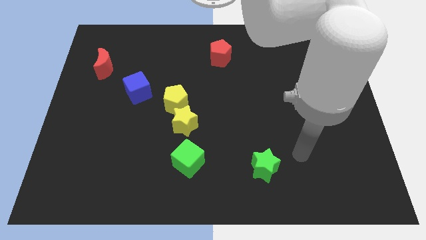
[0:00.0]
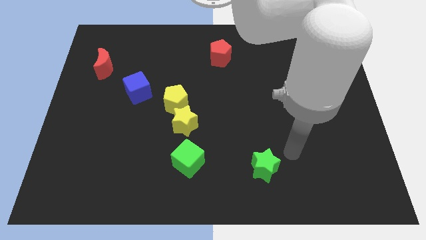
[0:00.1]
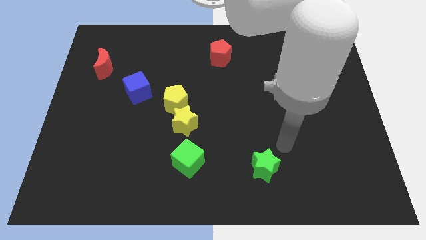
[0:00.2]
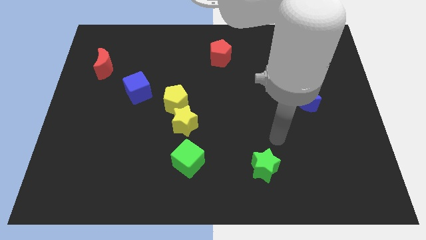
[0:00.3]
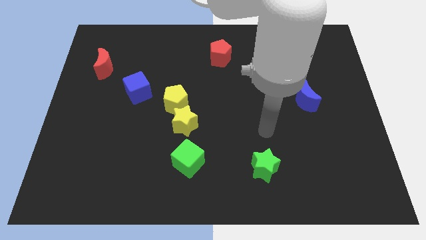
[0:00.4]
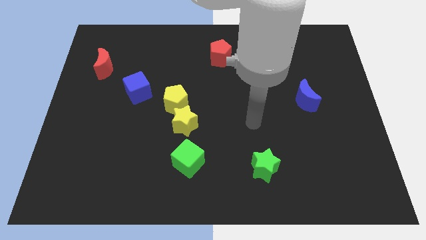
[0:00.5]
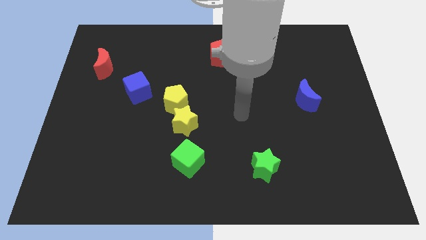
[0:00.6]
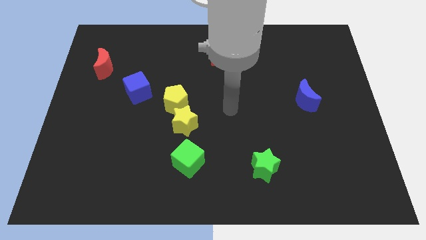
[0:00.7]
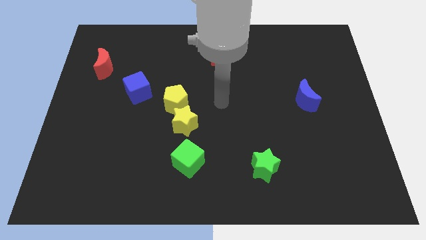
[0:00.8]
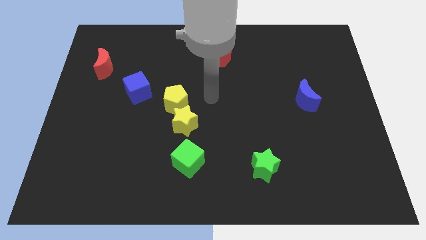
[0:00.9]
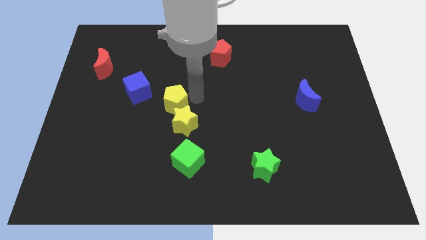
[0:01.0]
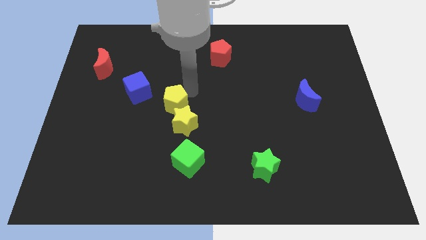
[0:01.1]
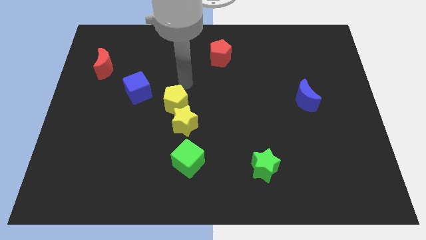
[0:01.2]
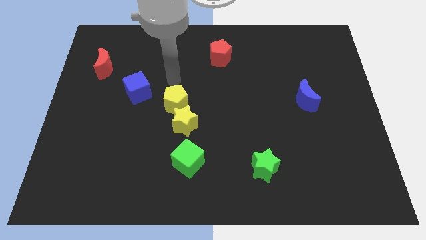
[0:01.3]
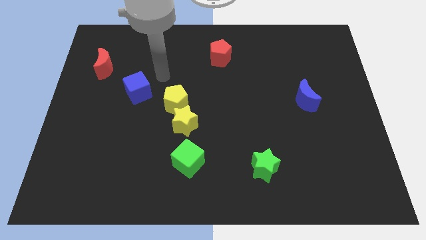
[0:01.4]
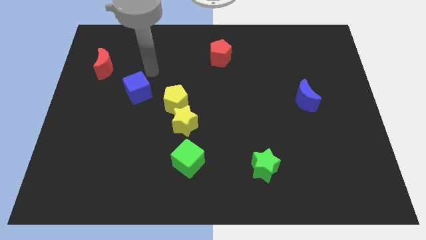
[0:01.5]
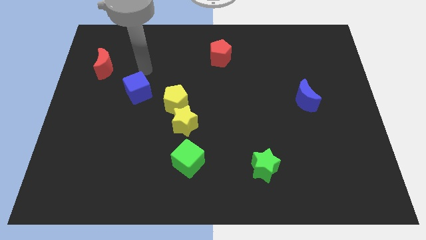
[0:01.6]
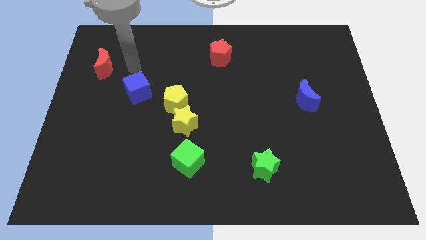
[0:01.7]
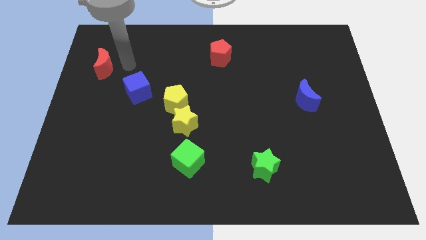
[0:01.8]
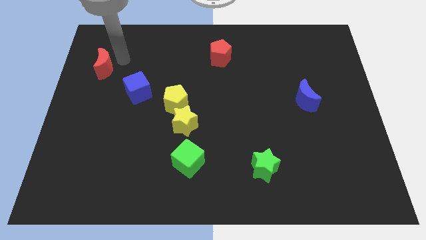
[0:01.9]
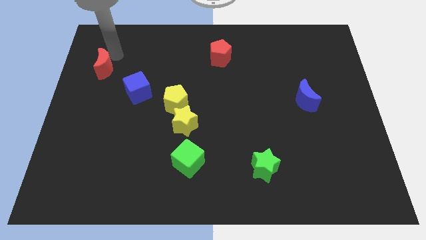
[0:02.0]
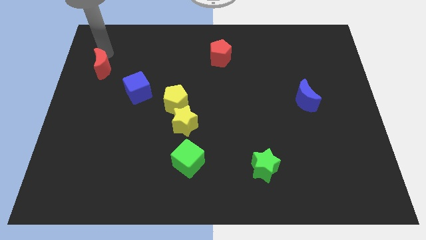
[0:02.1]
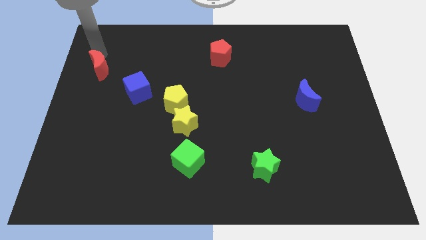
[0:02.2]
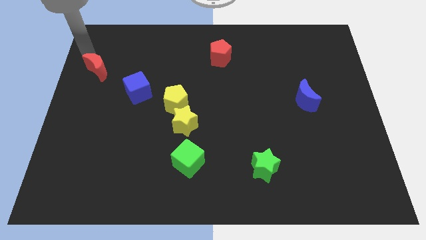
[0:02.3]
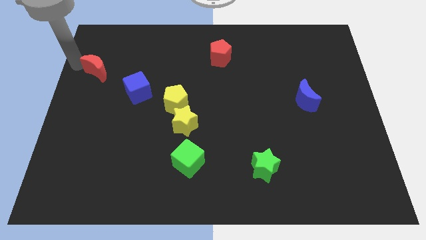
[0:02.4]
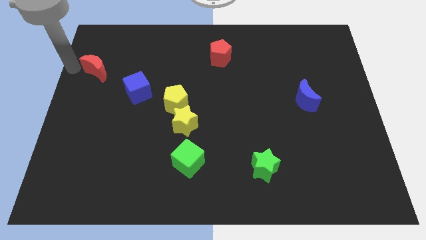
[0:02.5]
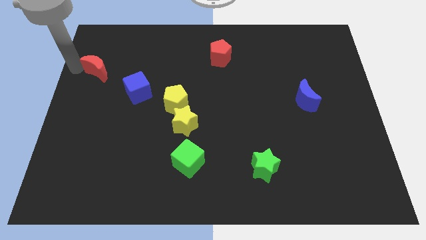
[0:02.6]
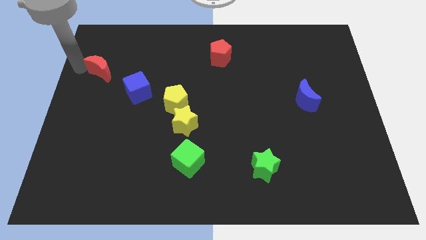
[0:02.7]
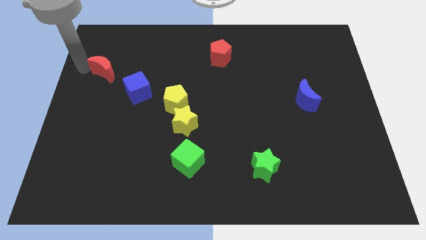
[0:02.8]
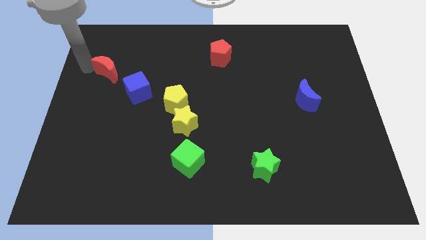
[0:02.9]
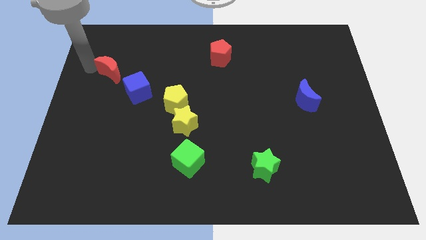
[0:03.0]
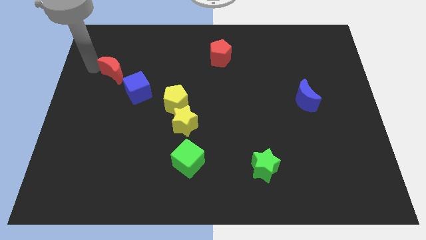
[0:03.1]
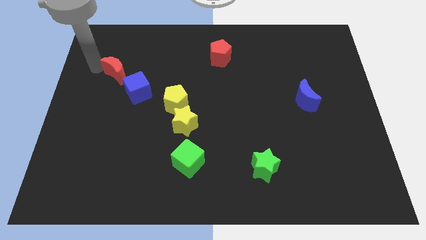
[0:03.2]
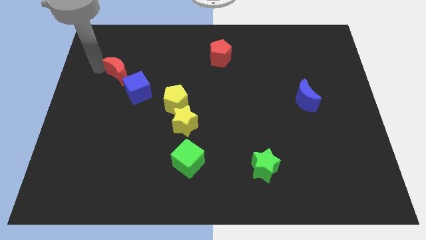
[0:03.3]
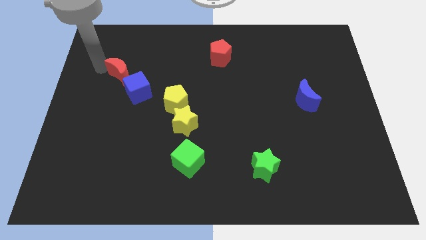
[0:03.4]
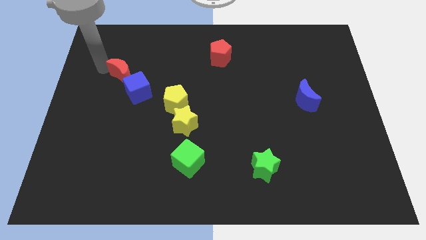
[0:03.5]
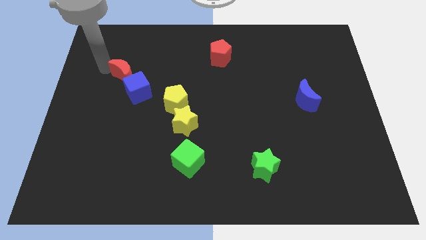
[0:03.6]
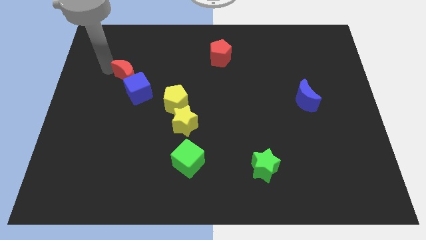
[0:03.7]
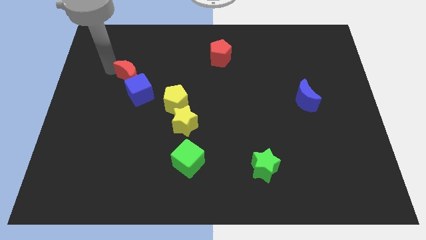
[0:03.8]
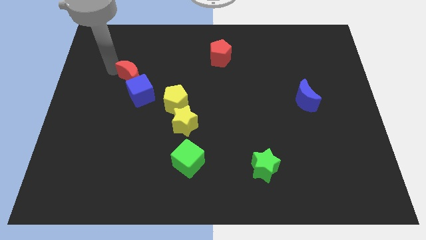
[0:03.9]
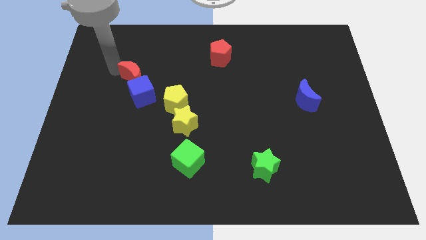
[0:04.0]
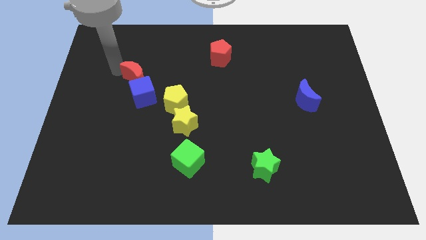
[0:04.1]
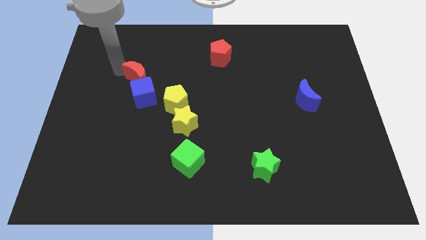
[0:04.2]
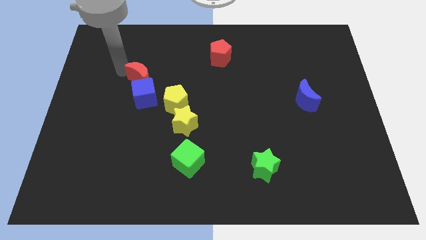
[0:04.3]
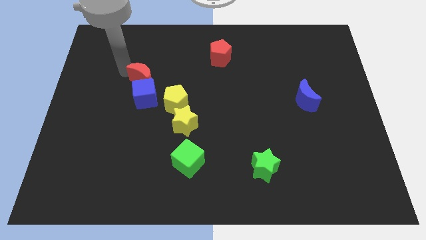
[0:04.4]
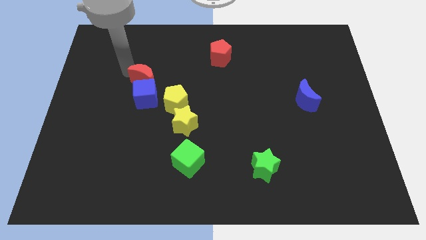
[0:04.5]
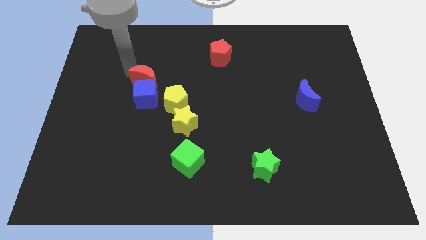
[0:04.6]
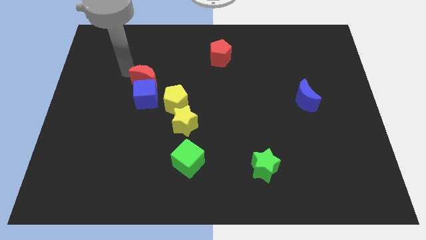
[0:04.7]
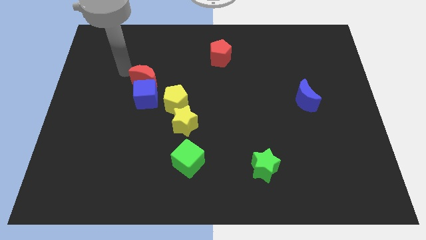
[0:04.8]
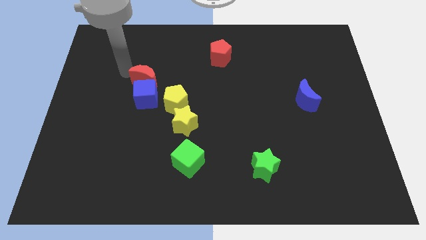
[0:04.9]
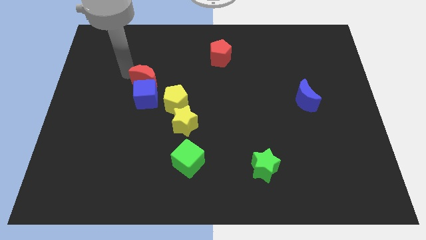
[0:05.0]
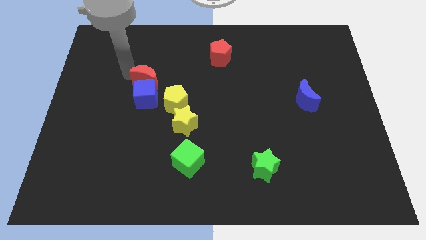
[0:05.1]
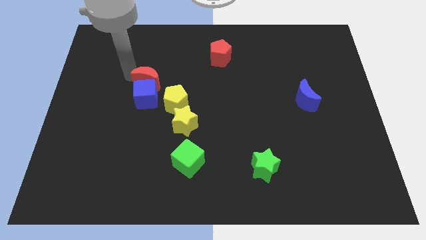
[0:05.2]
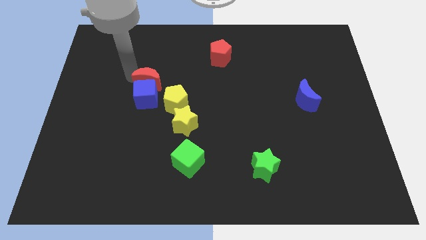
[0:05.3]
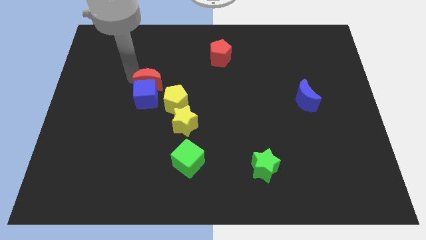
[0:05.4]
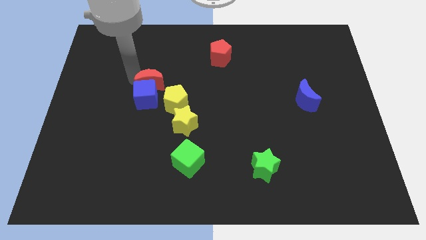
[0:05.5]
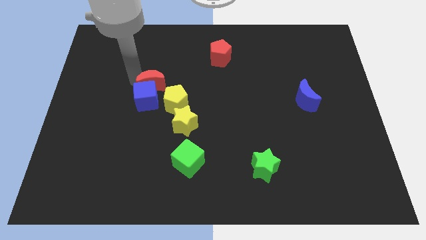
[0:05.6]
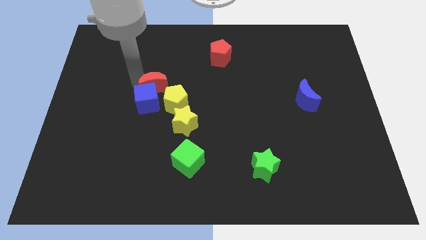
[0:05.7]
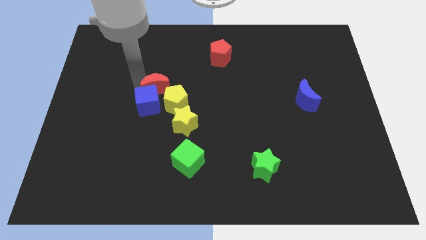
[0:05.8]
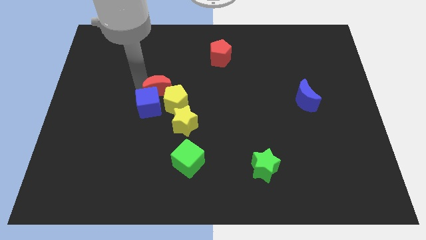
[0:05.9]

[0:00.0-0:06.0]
push the red moon towards the yellow pentagon

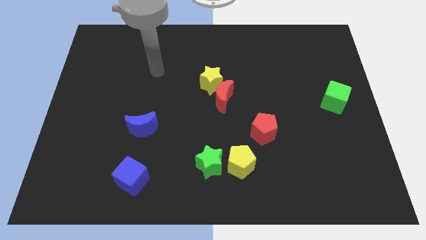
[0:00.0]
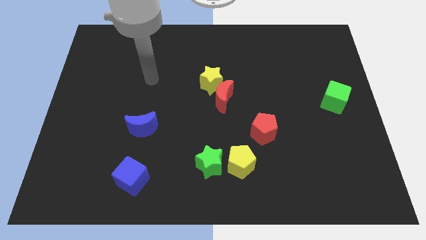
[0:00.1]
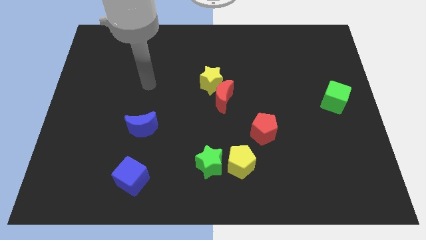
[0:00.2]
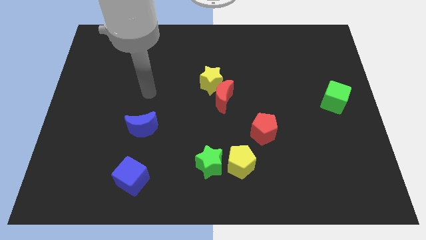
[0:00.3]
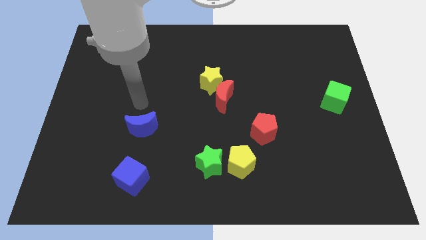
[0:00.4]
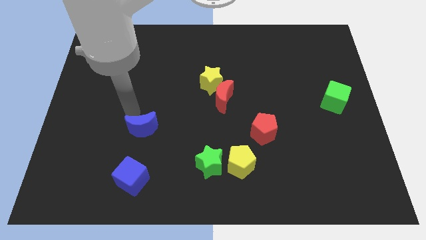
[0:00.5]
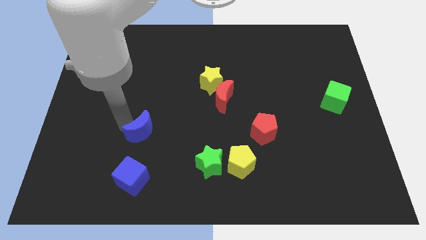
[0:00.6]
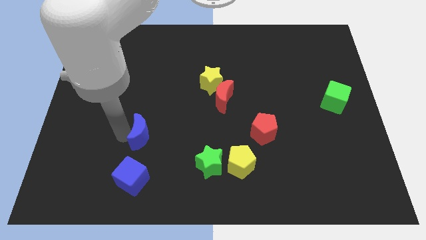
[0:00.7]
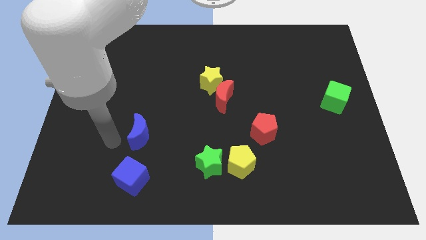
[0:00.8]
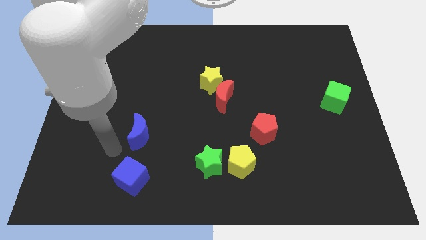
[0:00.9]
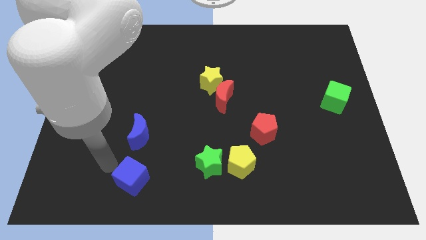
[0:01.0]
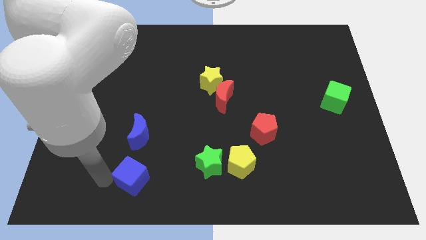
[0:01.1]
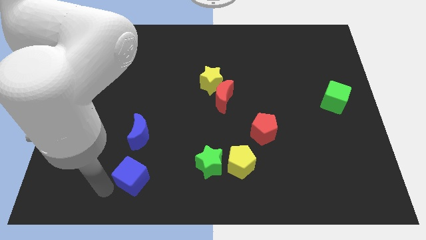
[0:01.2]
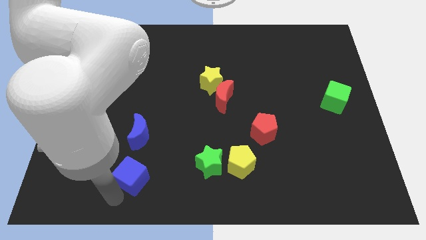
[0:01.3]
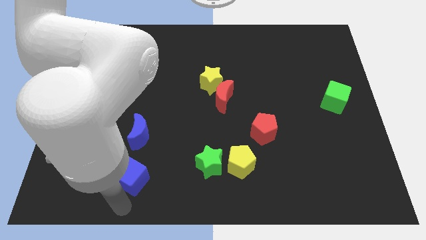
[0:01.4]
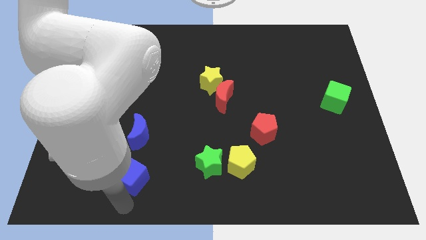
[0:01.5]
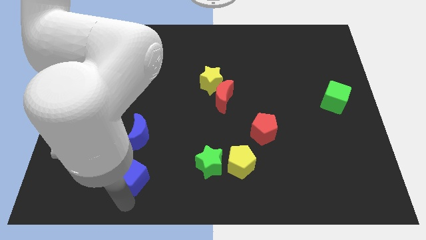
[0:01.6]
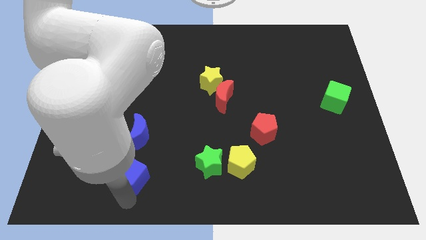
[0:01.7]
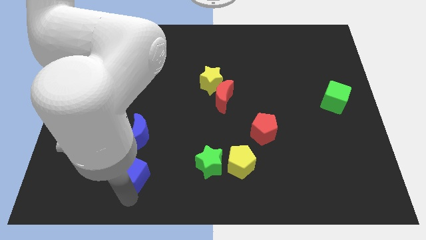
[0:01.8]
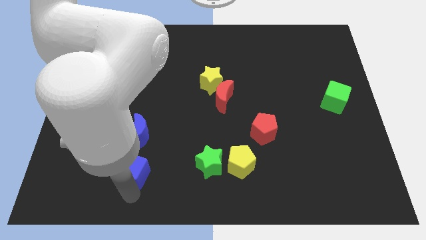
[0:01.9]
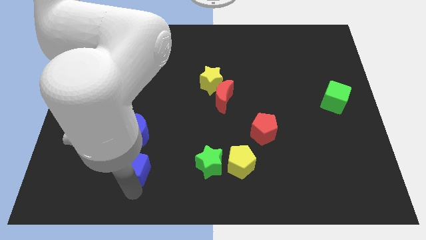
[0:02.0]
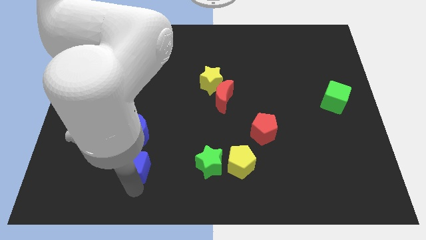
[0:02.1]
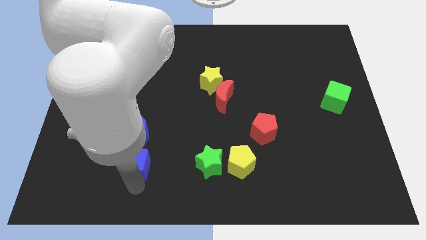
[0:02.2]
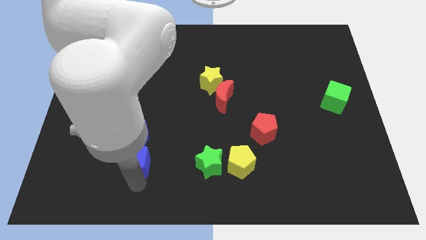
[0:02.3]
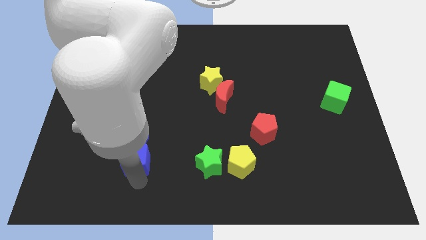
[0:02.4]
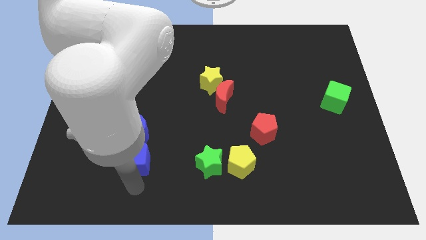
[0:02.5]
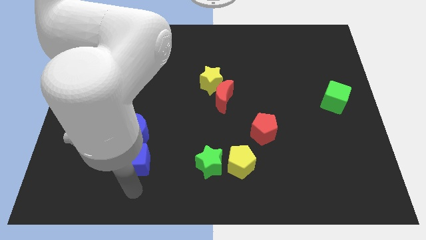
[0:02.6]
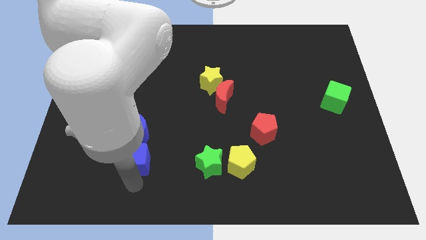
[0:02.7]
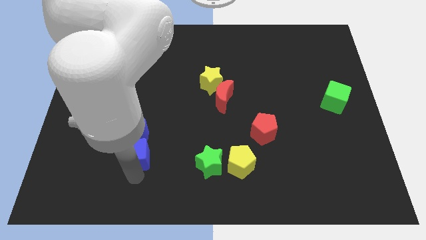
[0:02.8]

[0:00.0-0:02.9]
put the blue cube close to the blue moon

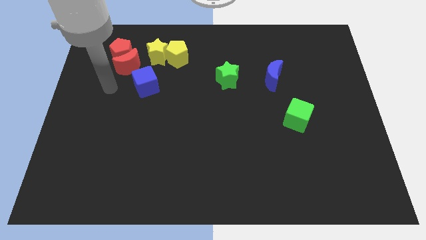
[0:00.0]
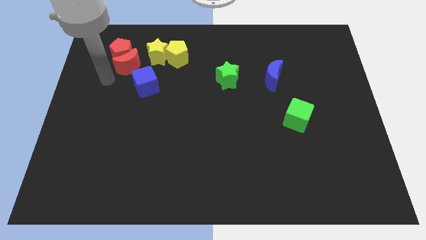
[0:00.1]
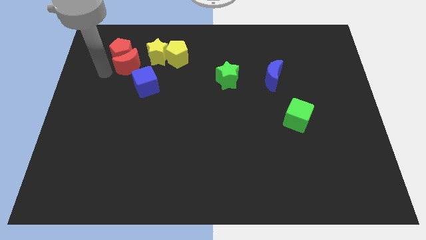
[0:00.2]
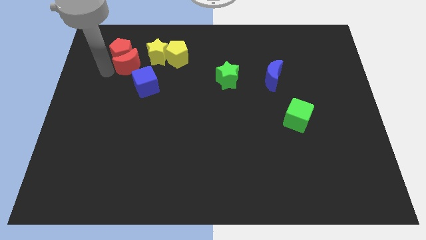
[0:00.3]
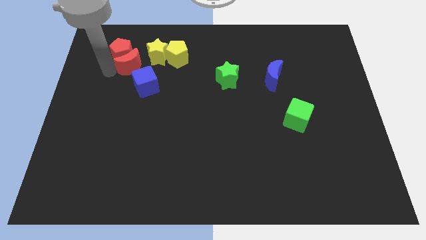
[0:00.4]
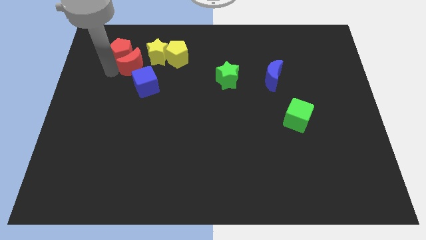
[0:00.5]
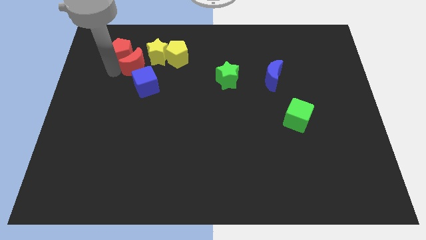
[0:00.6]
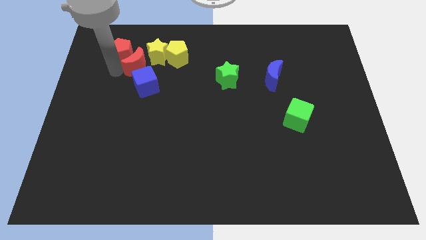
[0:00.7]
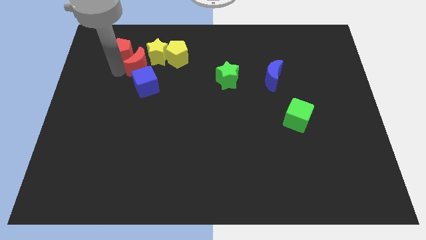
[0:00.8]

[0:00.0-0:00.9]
move the red moon close to the yellow star
